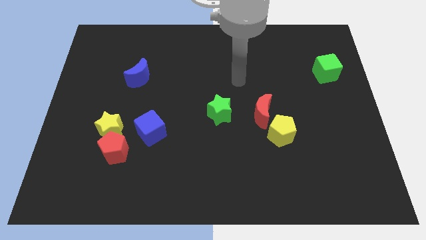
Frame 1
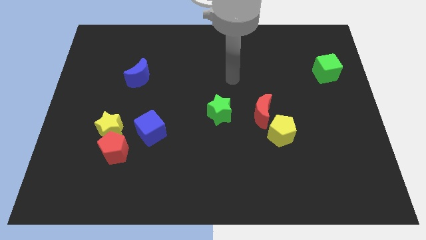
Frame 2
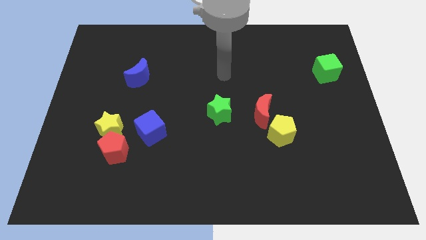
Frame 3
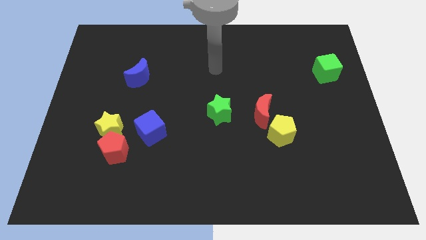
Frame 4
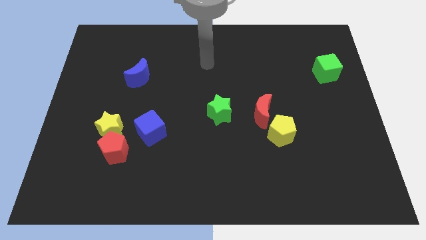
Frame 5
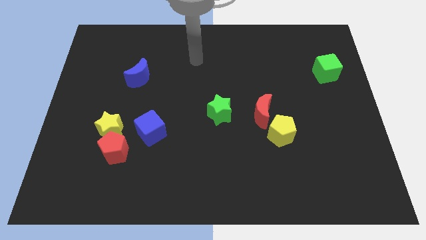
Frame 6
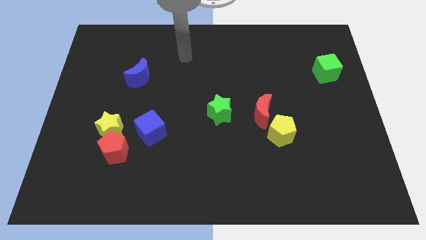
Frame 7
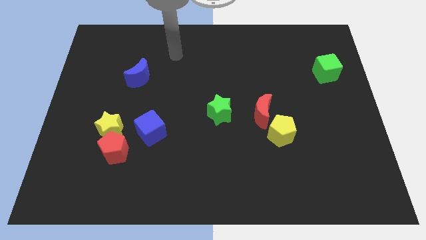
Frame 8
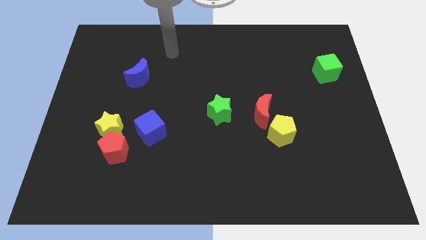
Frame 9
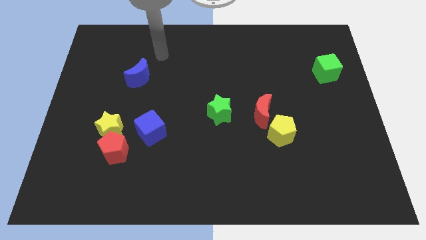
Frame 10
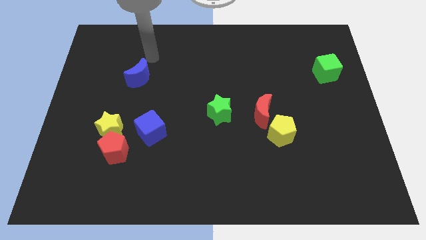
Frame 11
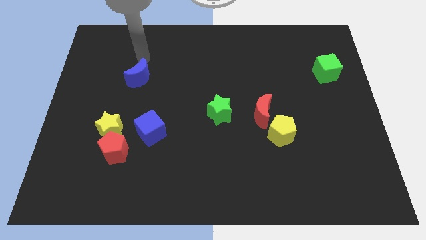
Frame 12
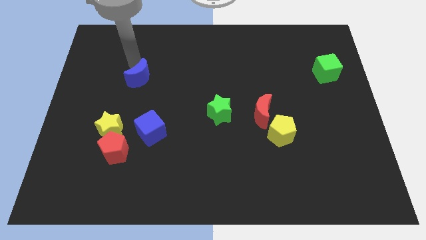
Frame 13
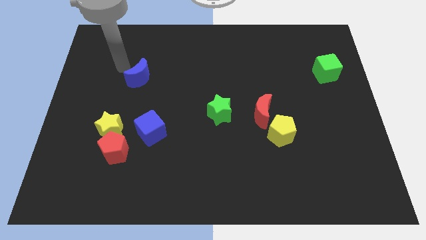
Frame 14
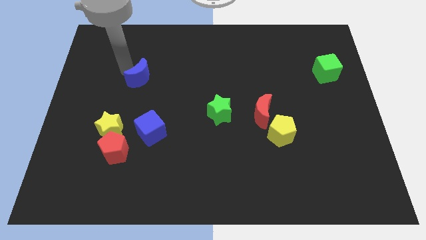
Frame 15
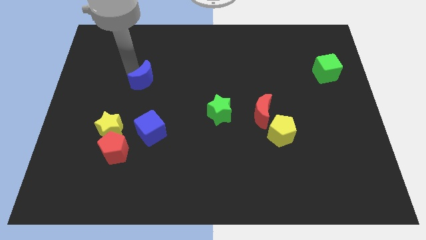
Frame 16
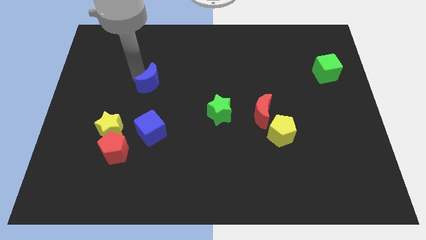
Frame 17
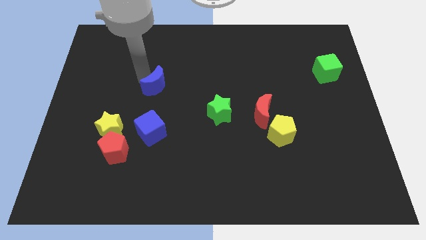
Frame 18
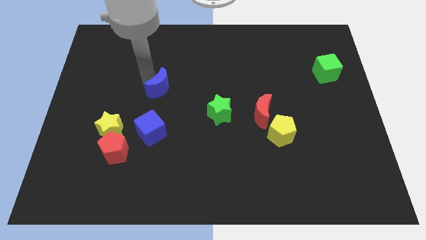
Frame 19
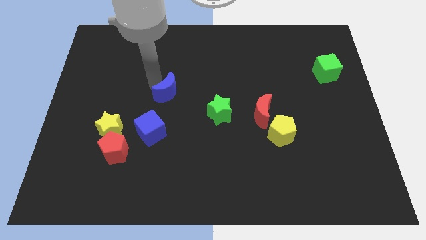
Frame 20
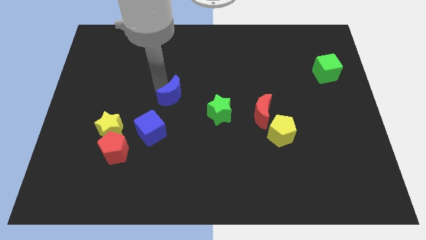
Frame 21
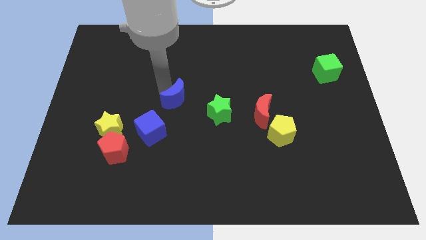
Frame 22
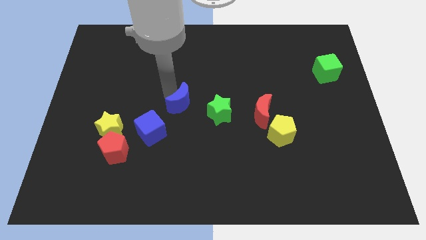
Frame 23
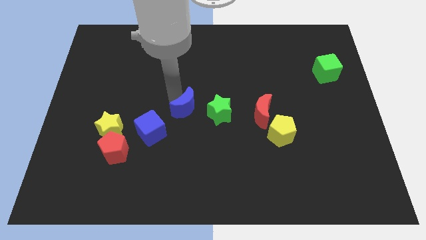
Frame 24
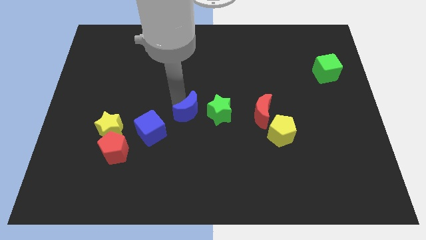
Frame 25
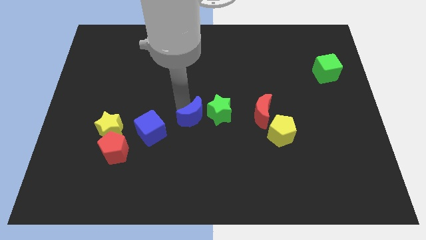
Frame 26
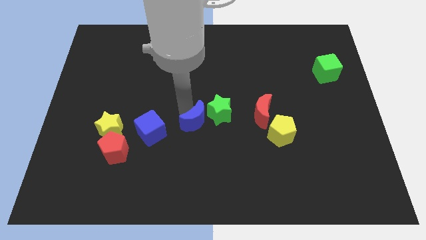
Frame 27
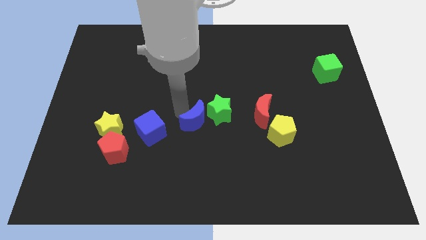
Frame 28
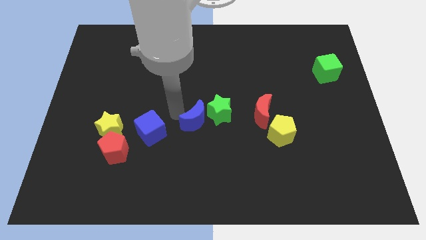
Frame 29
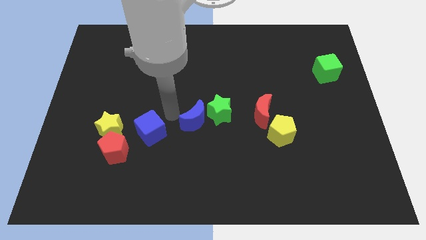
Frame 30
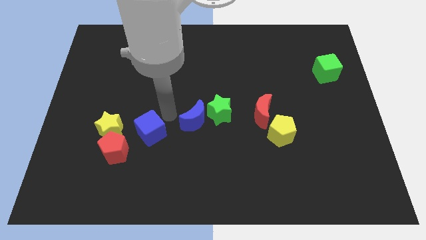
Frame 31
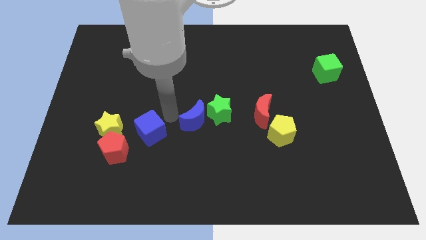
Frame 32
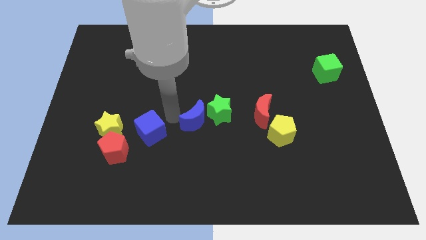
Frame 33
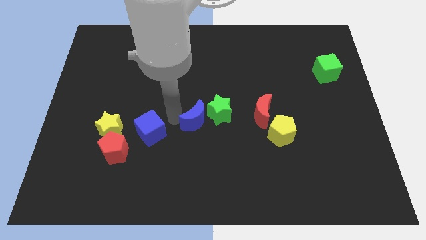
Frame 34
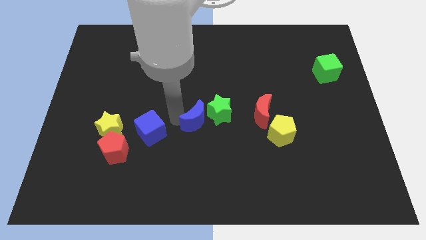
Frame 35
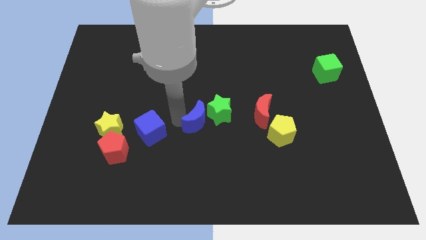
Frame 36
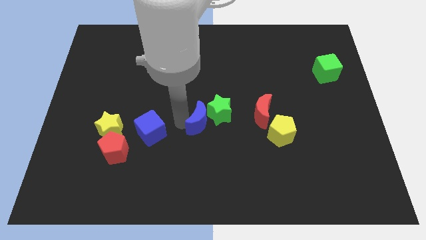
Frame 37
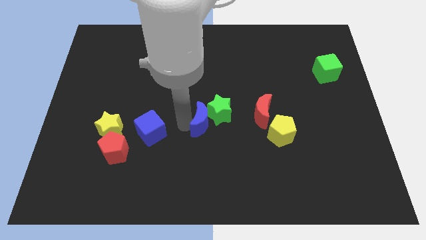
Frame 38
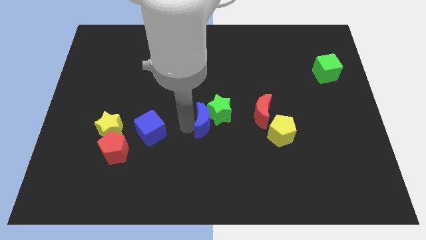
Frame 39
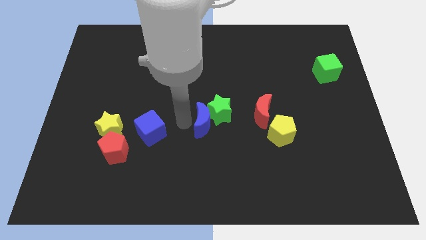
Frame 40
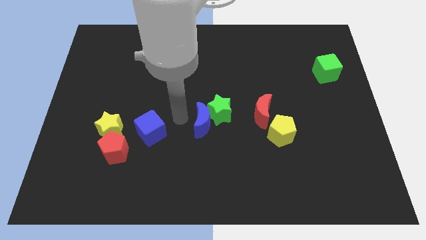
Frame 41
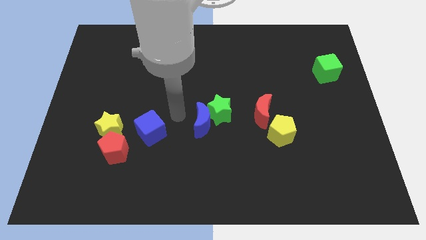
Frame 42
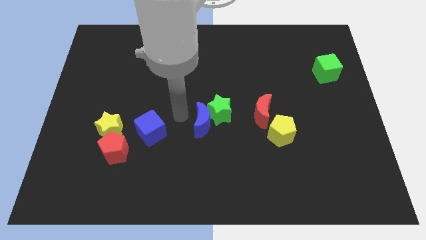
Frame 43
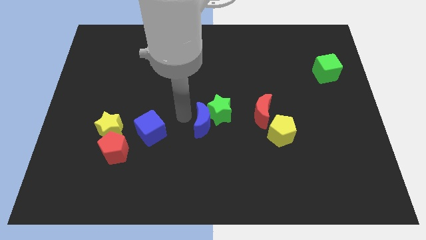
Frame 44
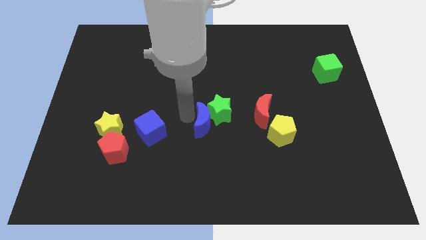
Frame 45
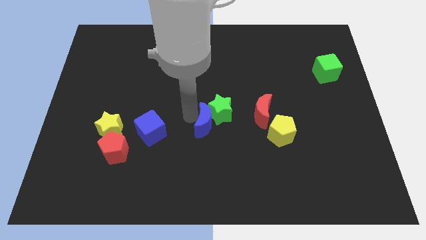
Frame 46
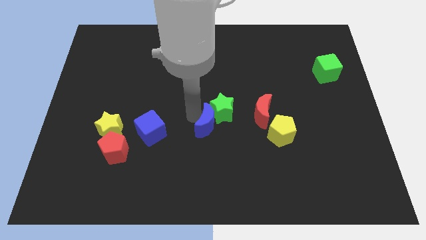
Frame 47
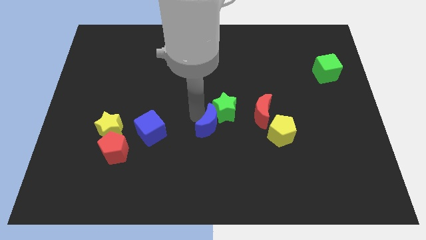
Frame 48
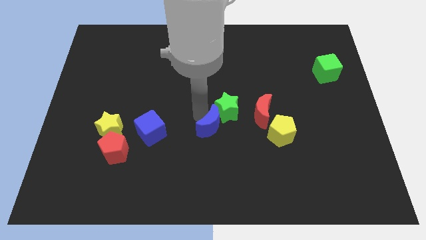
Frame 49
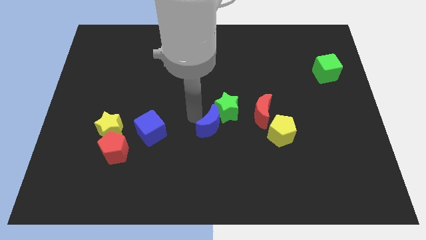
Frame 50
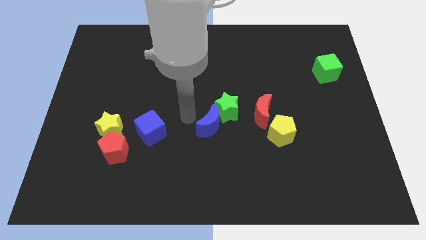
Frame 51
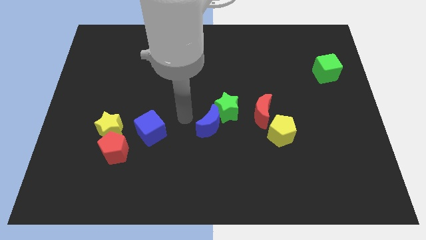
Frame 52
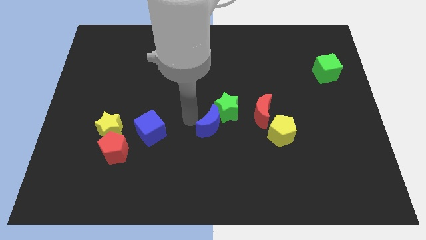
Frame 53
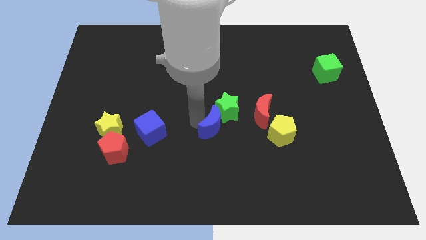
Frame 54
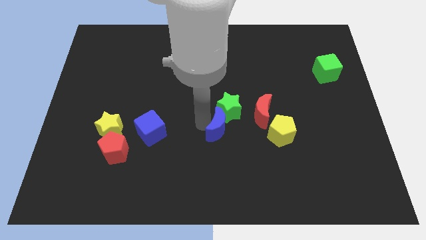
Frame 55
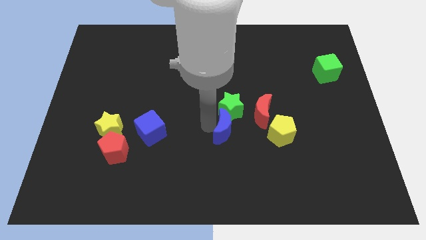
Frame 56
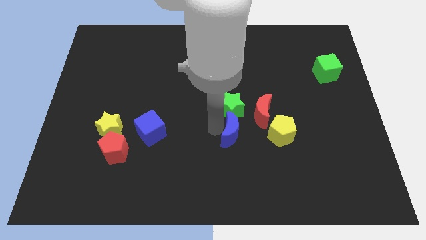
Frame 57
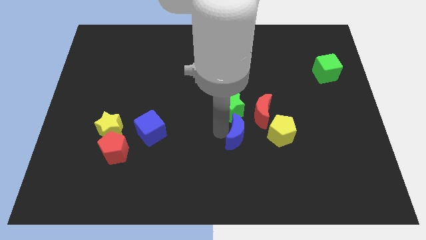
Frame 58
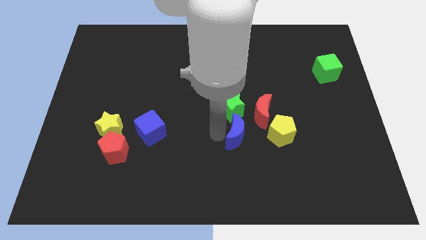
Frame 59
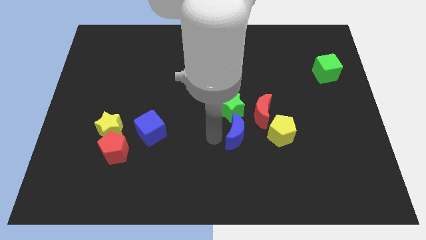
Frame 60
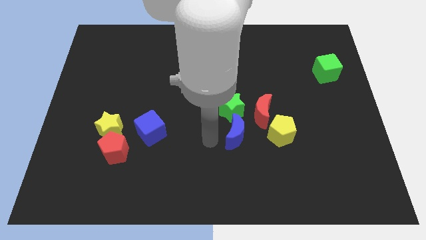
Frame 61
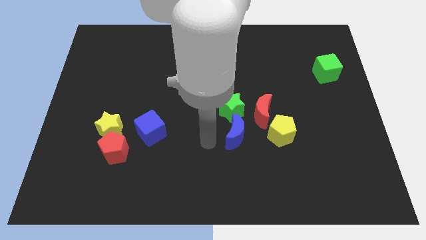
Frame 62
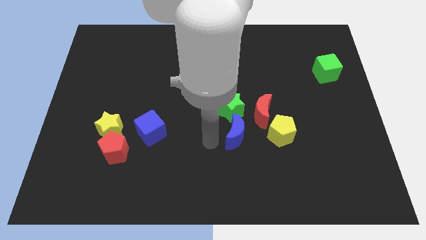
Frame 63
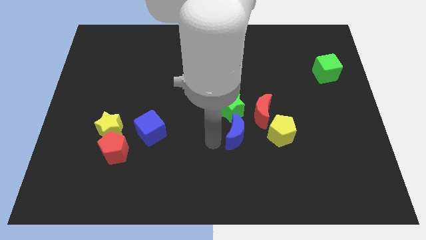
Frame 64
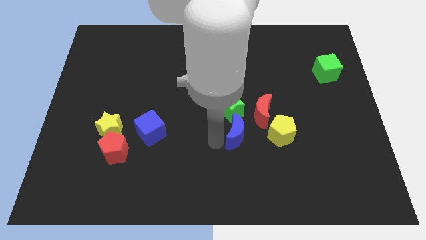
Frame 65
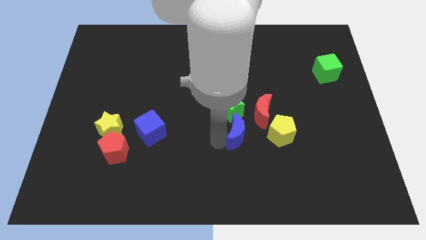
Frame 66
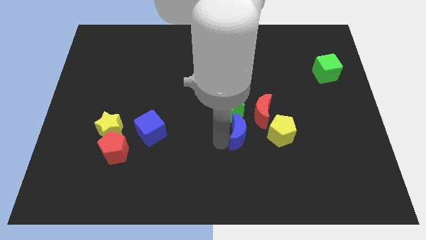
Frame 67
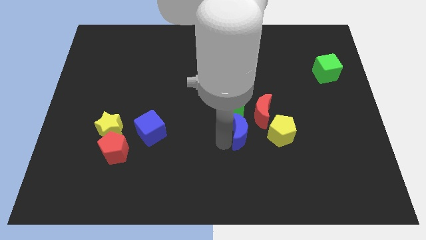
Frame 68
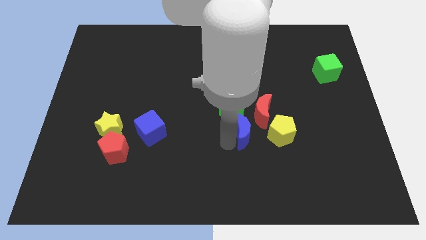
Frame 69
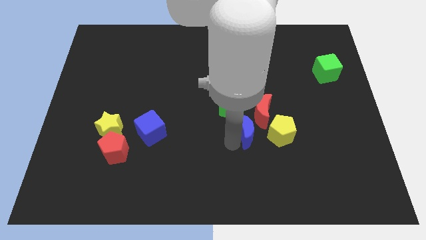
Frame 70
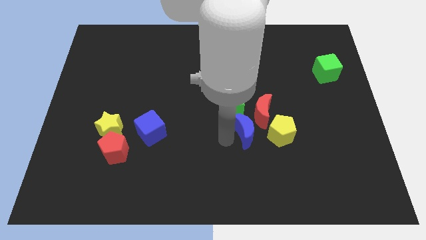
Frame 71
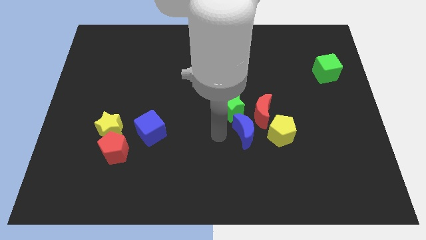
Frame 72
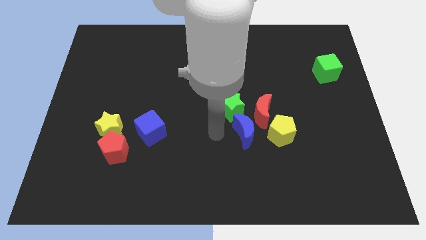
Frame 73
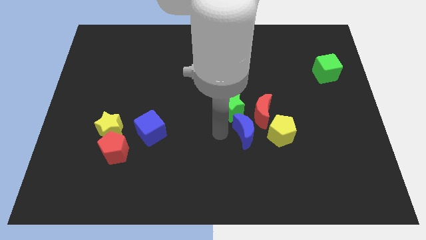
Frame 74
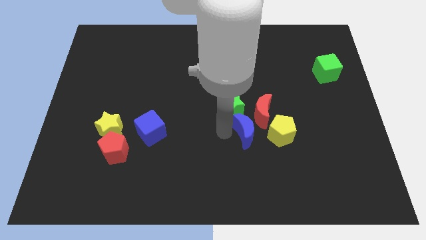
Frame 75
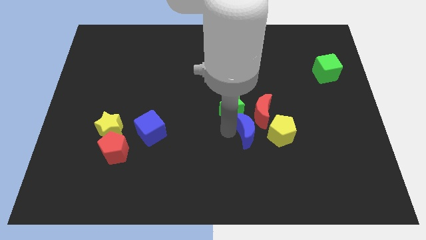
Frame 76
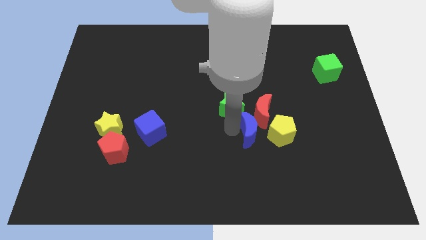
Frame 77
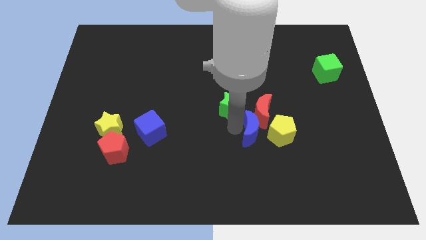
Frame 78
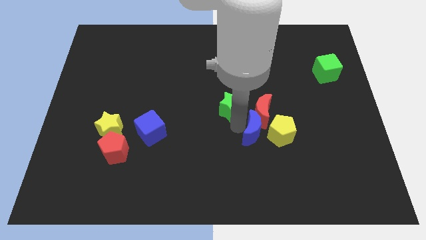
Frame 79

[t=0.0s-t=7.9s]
put the blue moon to the yellow pentagon

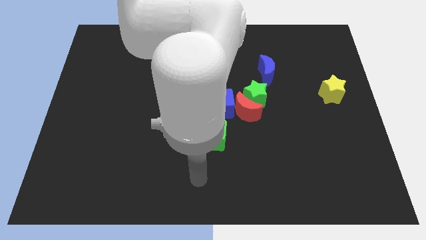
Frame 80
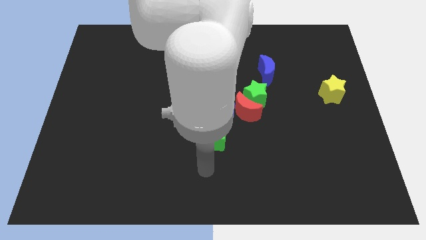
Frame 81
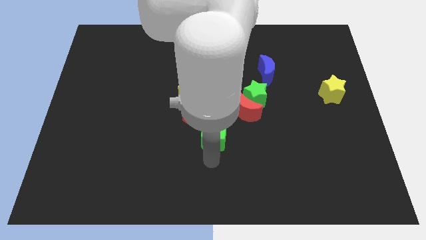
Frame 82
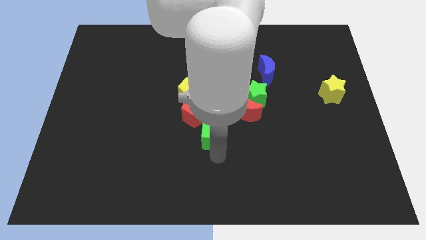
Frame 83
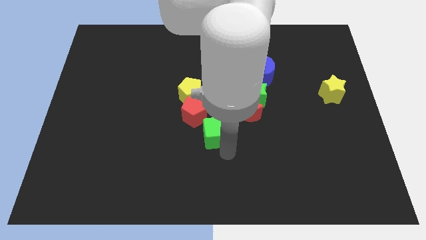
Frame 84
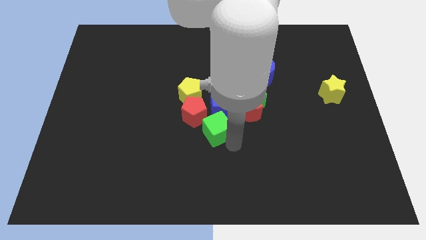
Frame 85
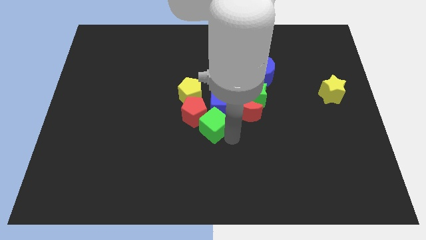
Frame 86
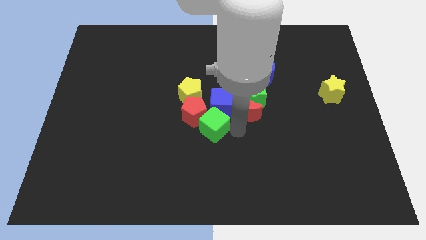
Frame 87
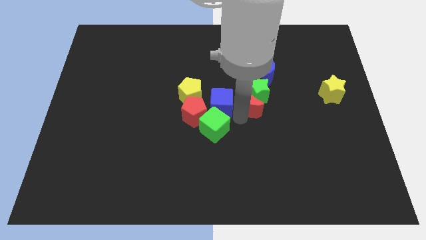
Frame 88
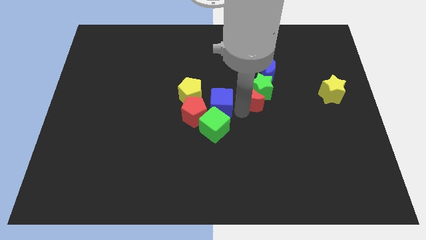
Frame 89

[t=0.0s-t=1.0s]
put the green star to the blue moon
